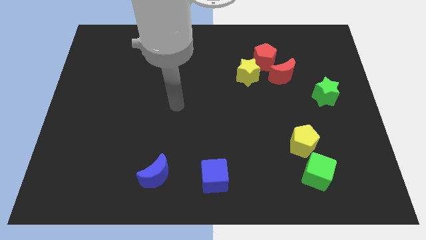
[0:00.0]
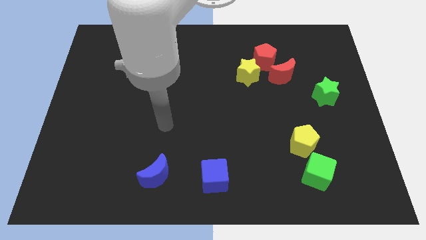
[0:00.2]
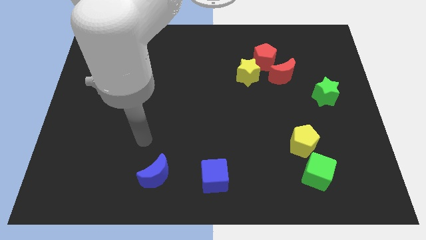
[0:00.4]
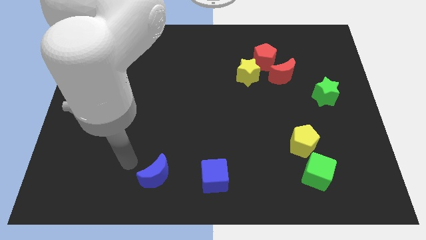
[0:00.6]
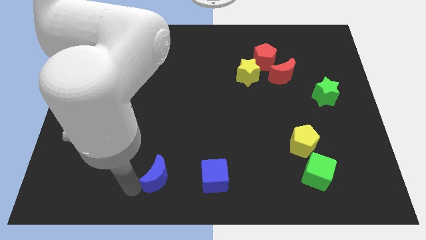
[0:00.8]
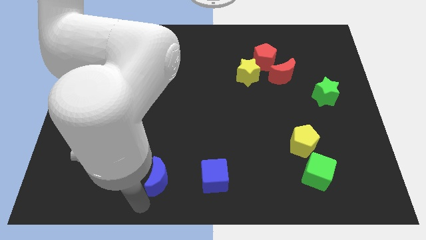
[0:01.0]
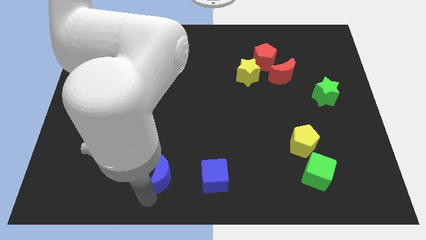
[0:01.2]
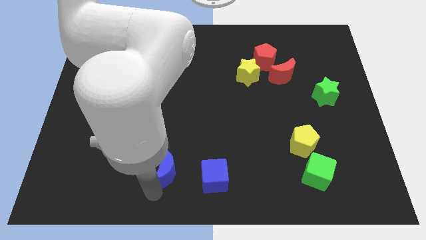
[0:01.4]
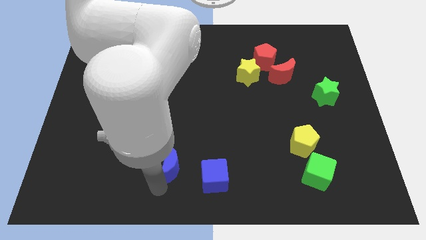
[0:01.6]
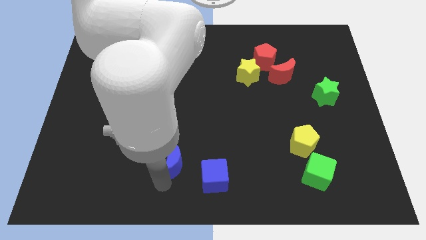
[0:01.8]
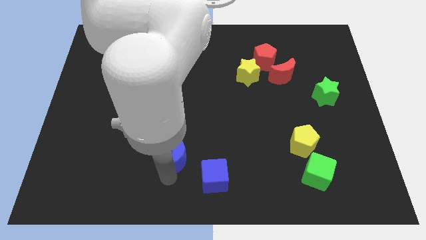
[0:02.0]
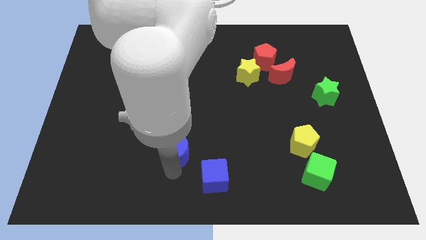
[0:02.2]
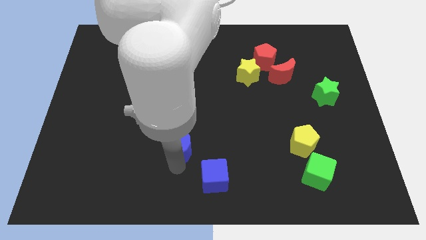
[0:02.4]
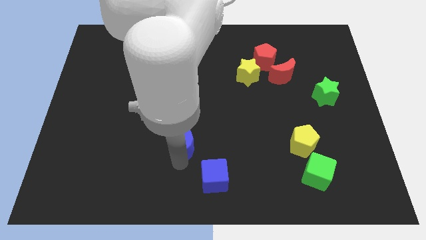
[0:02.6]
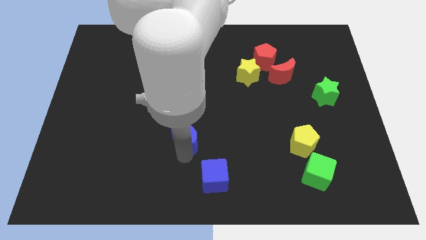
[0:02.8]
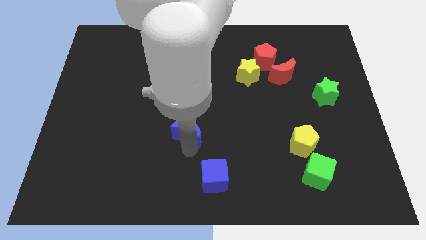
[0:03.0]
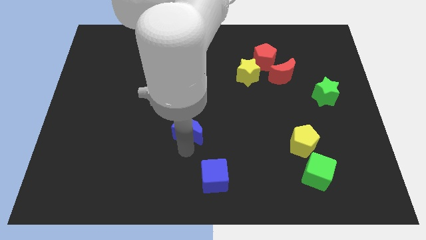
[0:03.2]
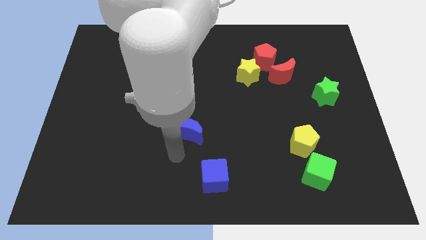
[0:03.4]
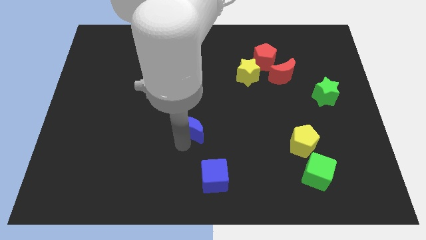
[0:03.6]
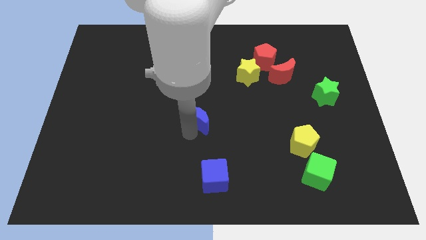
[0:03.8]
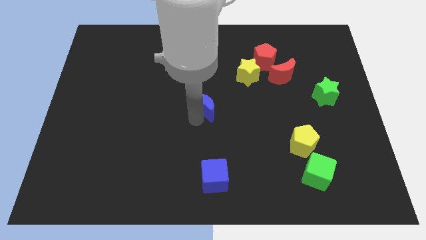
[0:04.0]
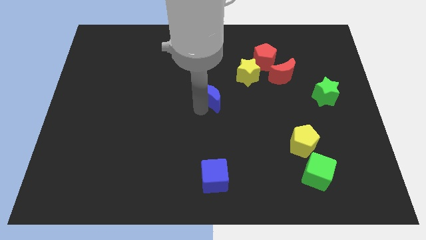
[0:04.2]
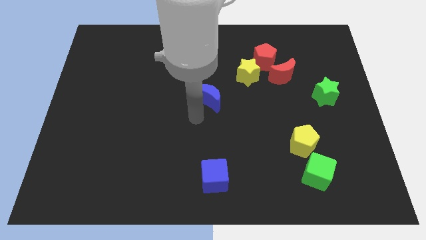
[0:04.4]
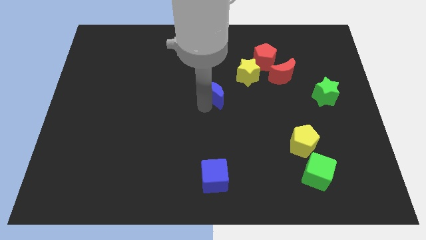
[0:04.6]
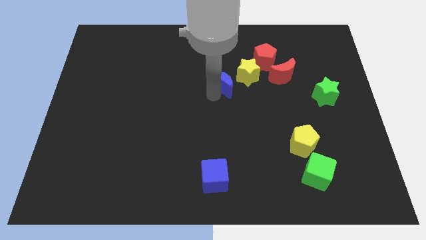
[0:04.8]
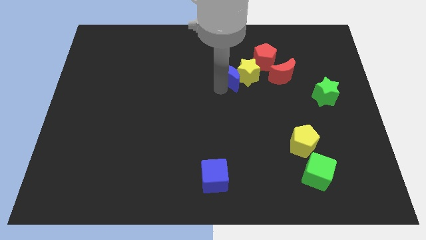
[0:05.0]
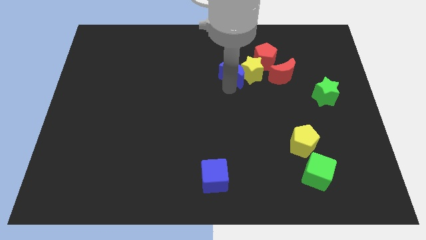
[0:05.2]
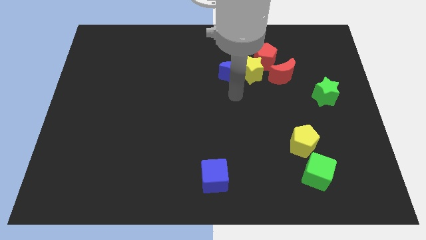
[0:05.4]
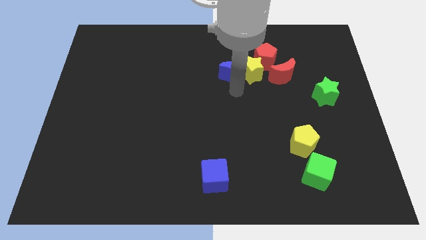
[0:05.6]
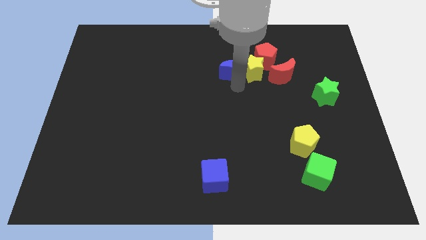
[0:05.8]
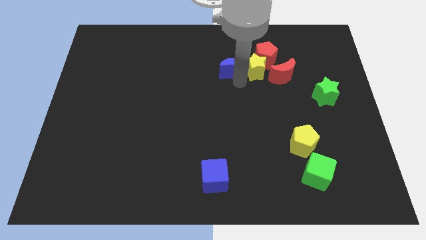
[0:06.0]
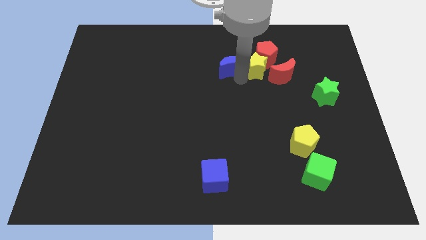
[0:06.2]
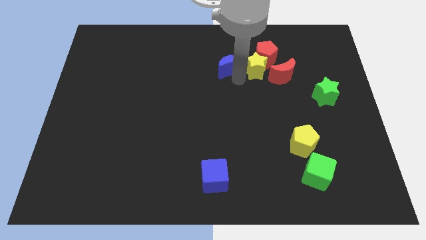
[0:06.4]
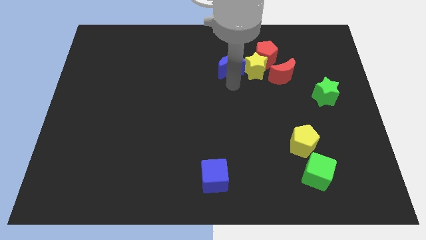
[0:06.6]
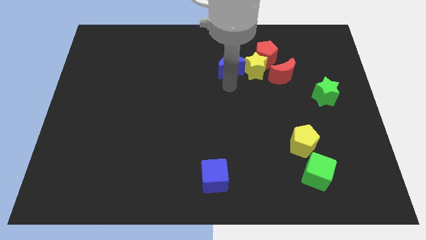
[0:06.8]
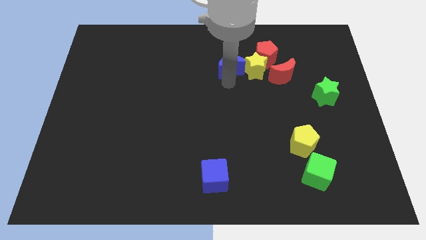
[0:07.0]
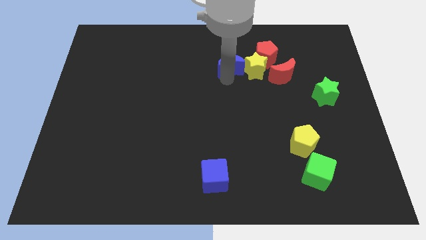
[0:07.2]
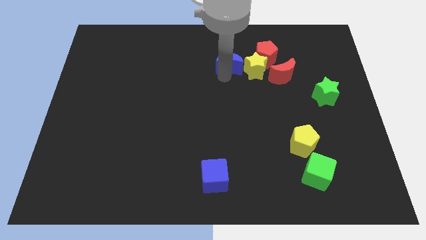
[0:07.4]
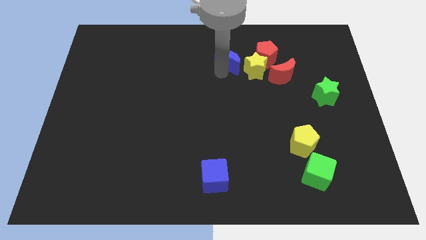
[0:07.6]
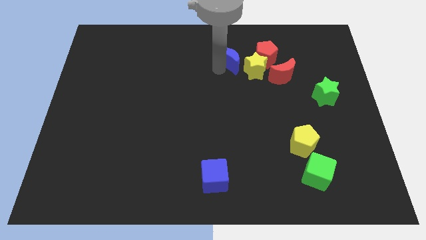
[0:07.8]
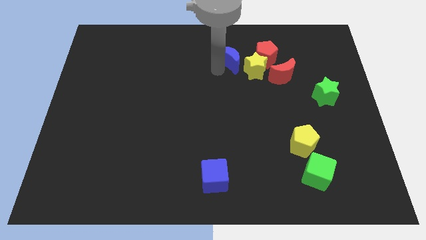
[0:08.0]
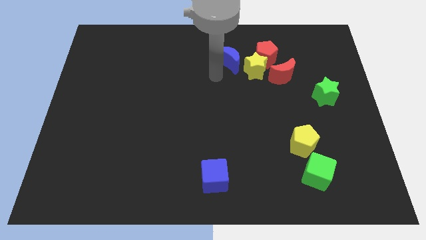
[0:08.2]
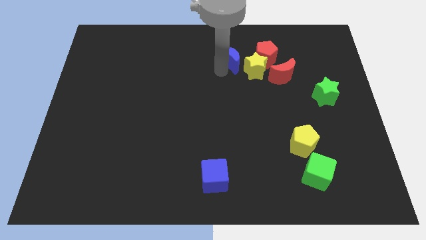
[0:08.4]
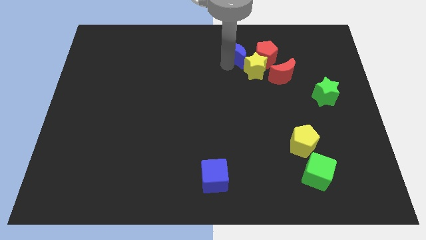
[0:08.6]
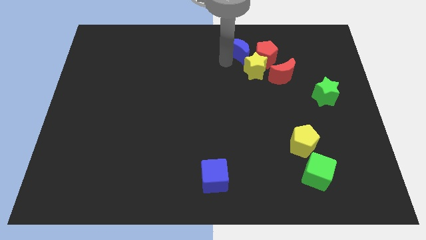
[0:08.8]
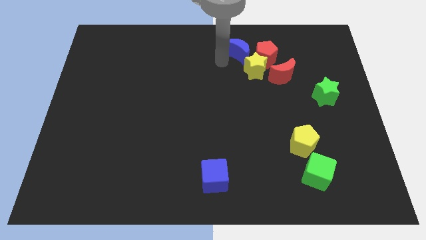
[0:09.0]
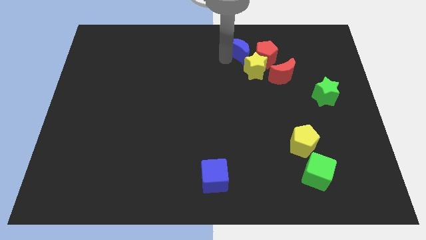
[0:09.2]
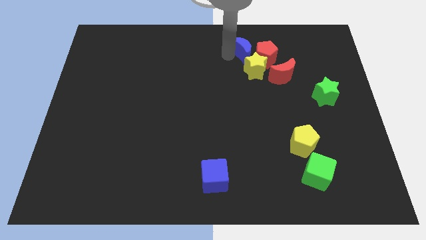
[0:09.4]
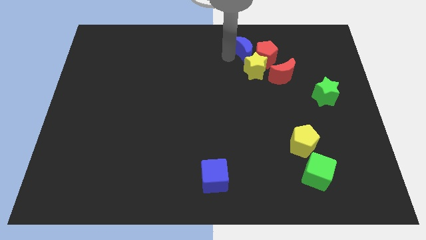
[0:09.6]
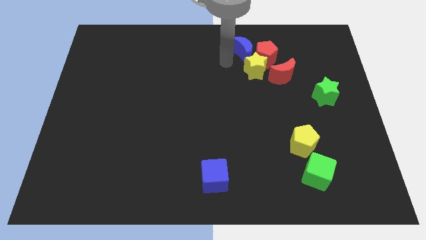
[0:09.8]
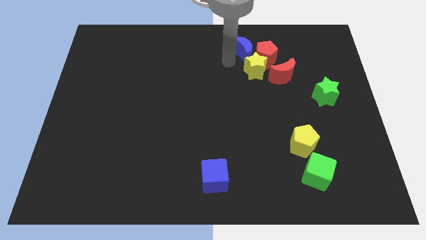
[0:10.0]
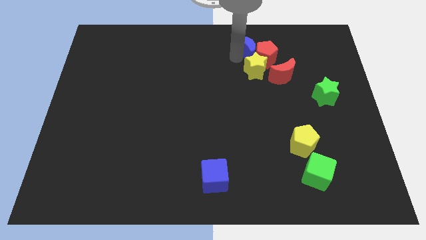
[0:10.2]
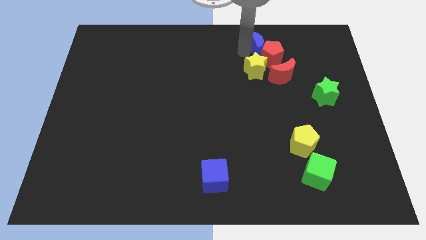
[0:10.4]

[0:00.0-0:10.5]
slide the blue moon to the top right side of the yellow star

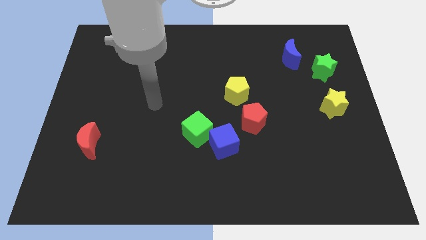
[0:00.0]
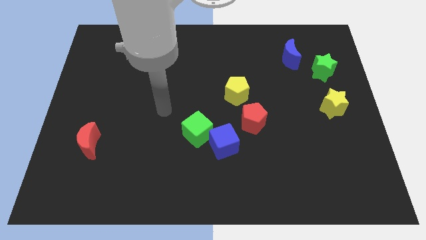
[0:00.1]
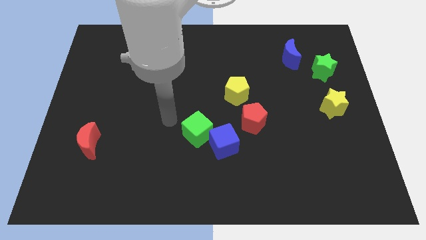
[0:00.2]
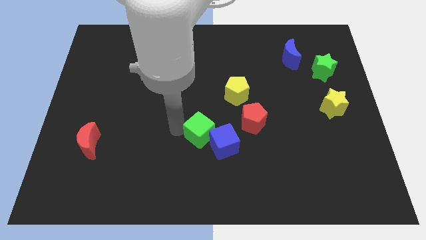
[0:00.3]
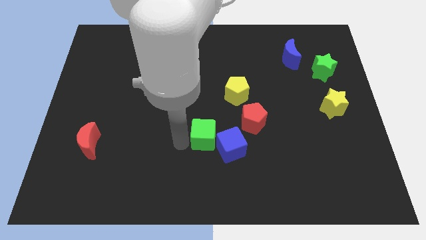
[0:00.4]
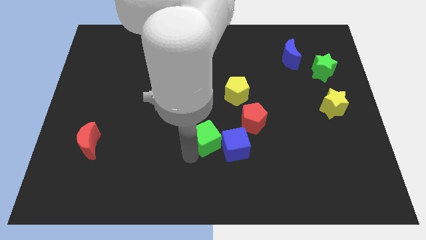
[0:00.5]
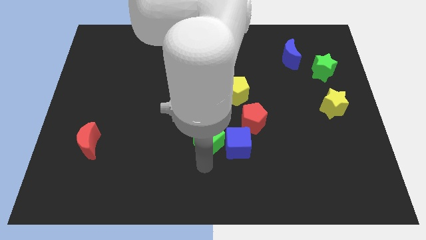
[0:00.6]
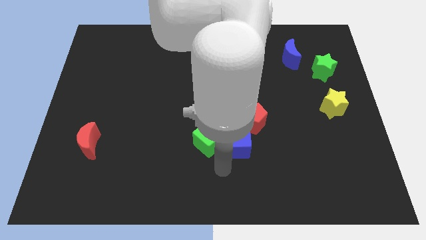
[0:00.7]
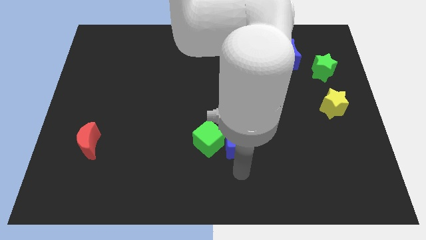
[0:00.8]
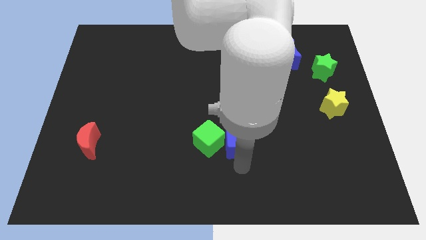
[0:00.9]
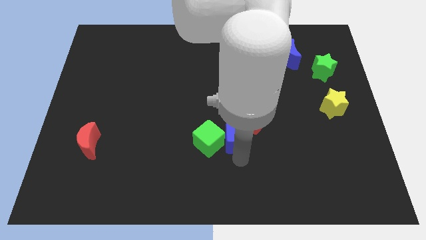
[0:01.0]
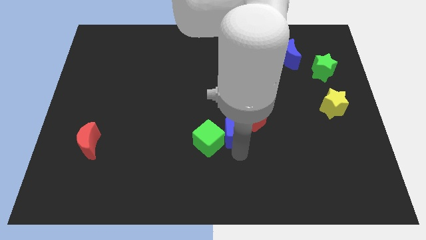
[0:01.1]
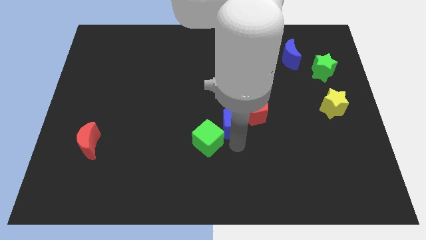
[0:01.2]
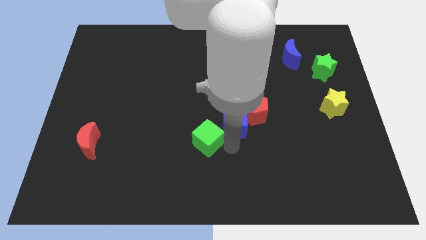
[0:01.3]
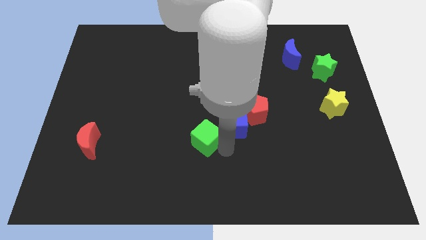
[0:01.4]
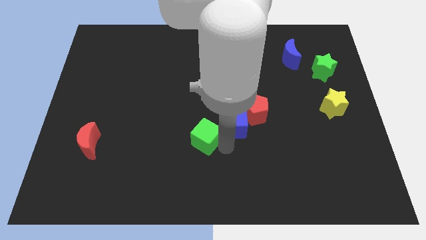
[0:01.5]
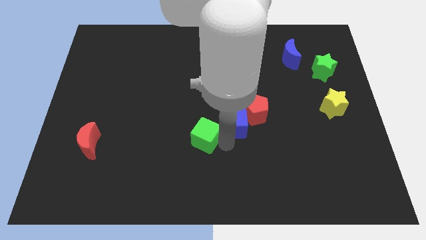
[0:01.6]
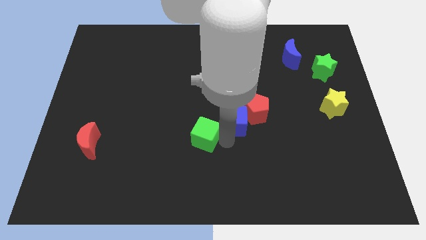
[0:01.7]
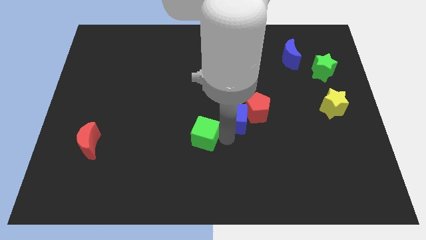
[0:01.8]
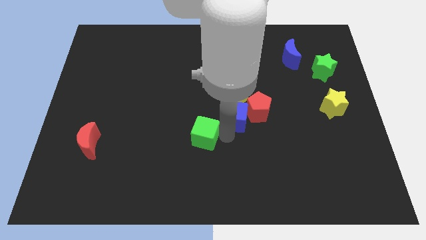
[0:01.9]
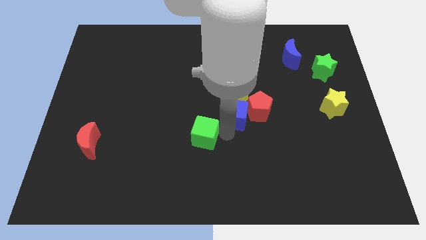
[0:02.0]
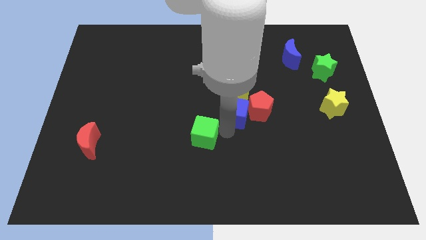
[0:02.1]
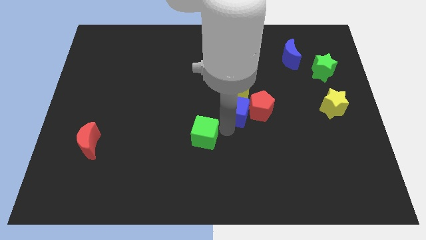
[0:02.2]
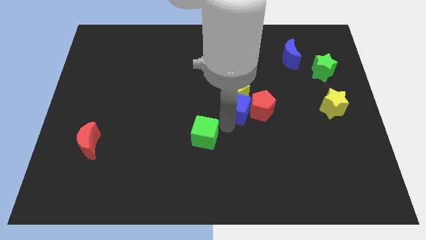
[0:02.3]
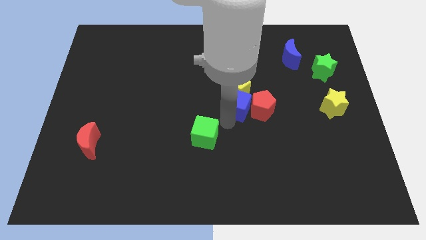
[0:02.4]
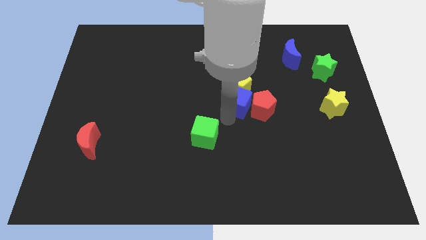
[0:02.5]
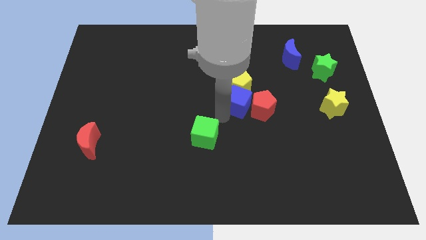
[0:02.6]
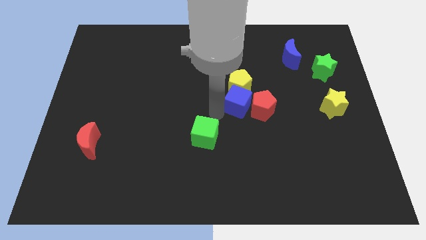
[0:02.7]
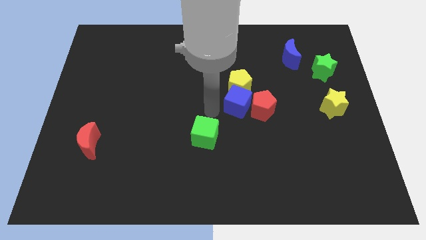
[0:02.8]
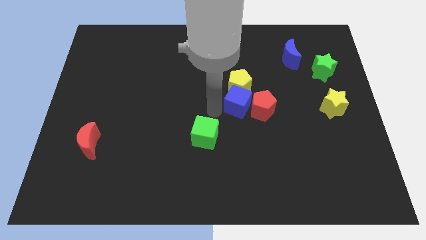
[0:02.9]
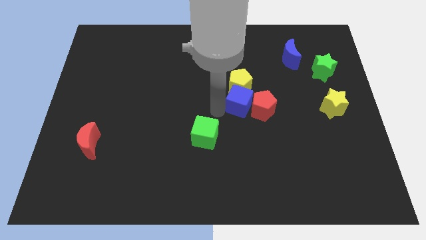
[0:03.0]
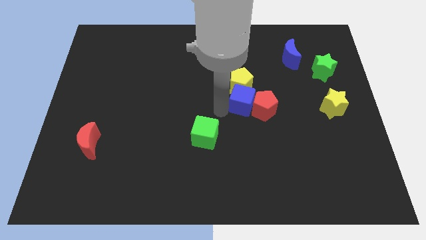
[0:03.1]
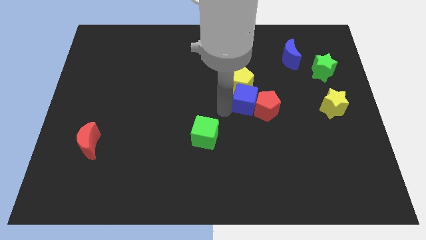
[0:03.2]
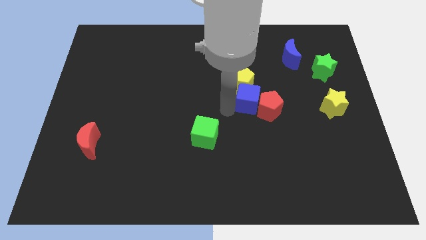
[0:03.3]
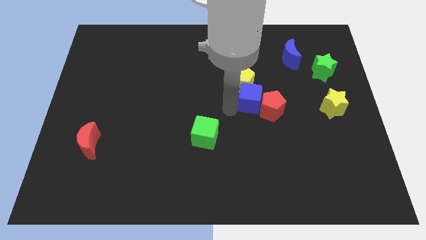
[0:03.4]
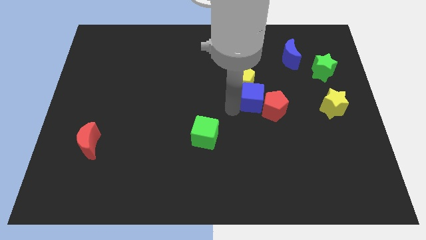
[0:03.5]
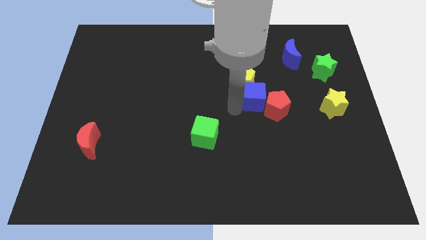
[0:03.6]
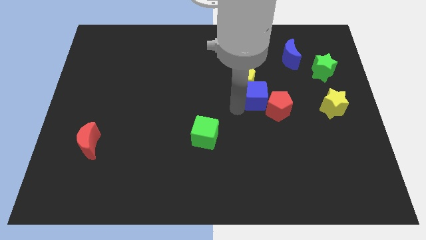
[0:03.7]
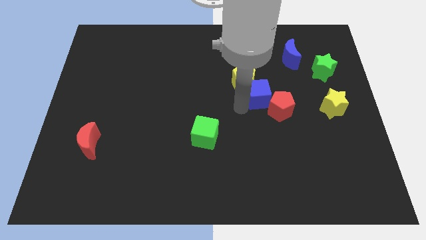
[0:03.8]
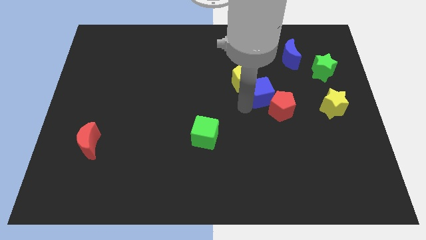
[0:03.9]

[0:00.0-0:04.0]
move the blue cube to the right side of the yellow pentagon
